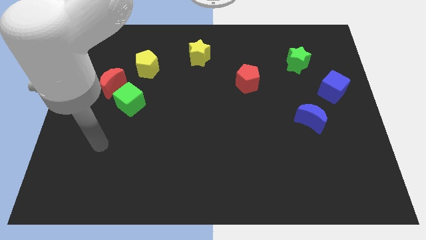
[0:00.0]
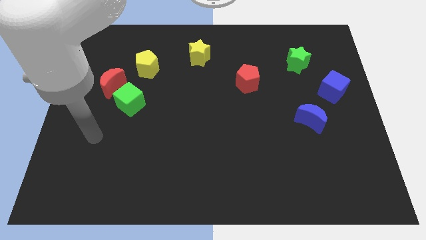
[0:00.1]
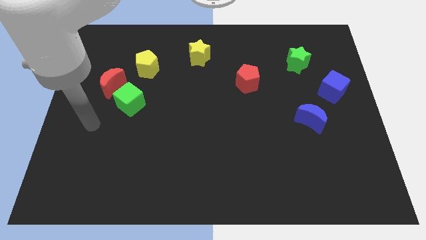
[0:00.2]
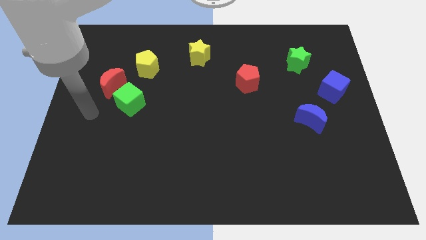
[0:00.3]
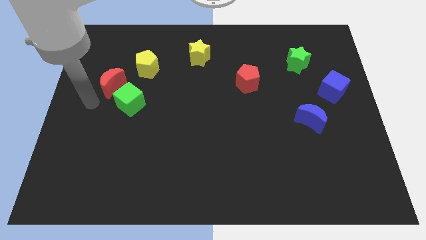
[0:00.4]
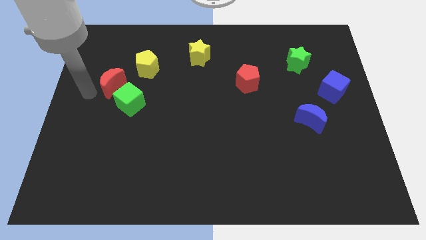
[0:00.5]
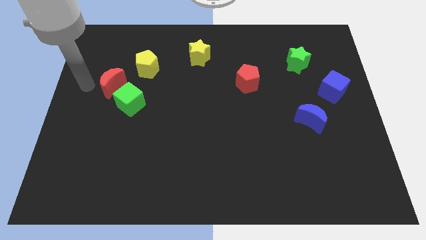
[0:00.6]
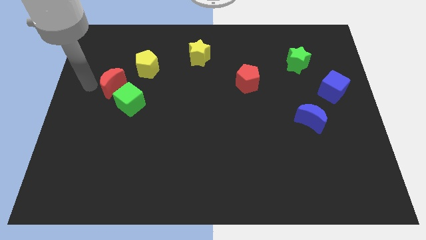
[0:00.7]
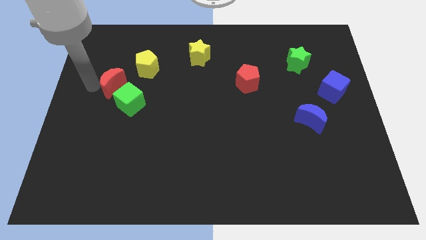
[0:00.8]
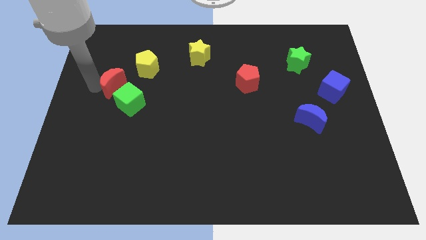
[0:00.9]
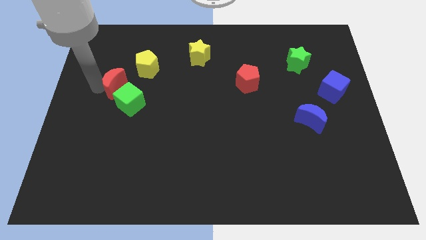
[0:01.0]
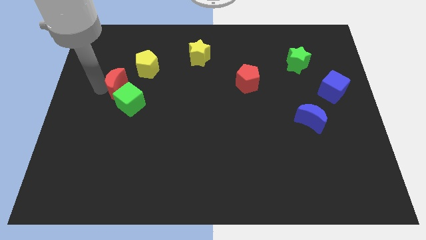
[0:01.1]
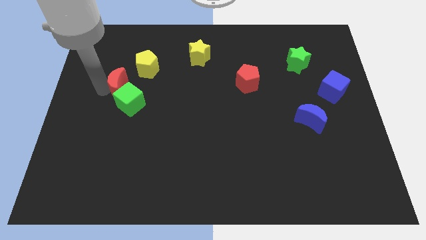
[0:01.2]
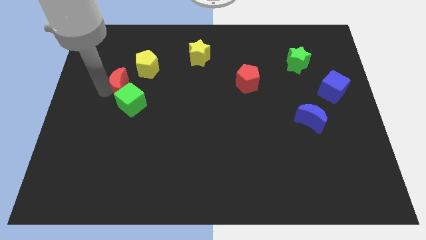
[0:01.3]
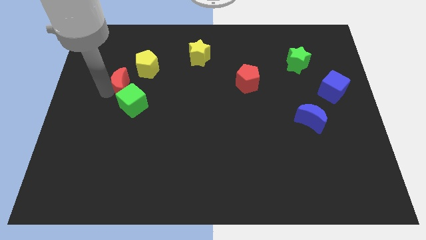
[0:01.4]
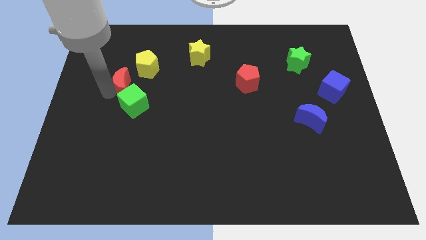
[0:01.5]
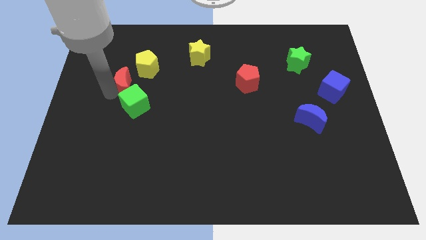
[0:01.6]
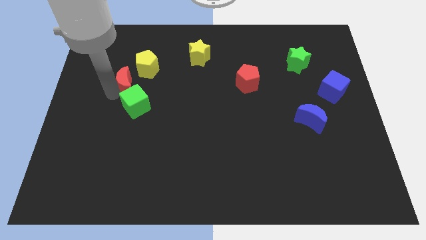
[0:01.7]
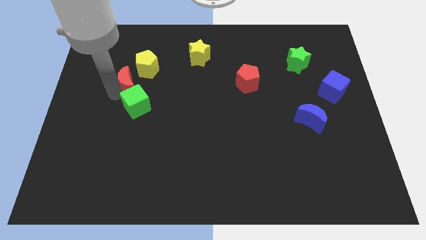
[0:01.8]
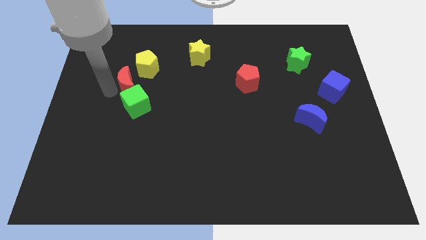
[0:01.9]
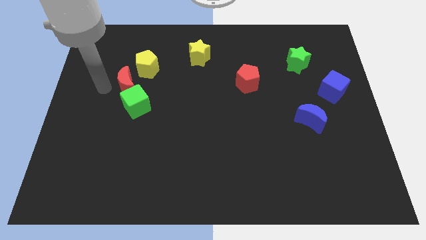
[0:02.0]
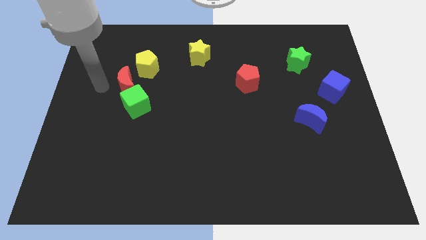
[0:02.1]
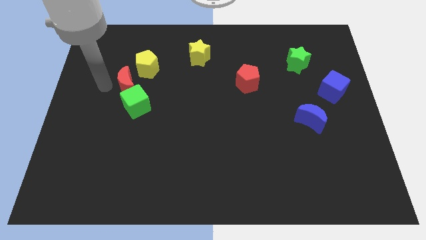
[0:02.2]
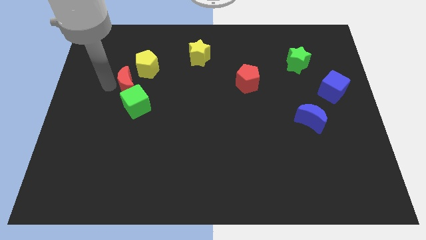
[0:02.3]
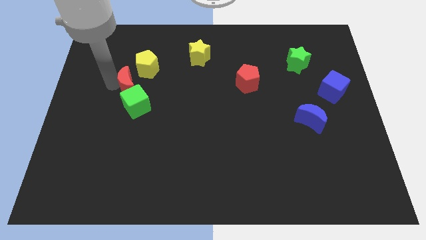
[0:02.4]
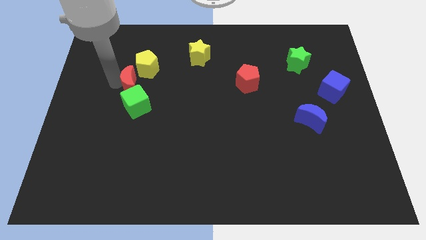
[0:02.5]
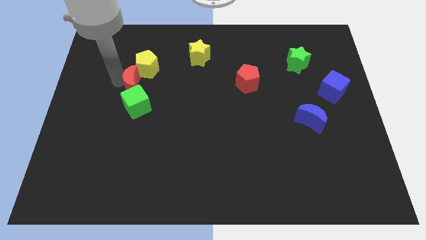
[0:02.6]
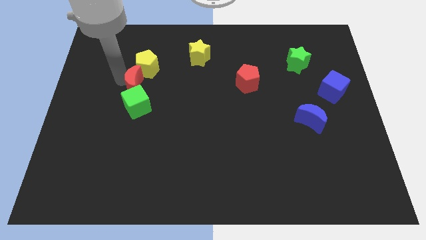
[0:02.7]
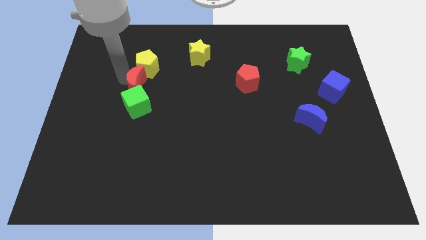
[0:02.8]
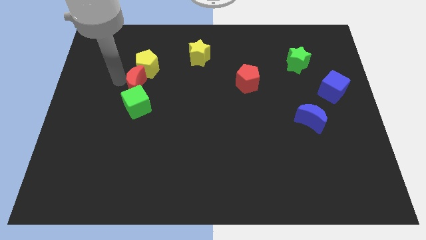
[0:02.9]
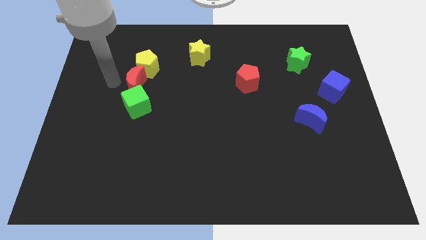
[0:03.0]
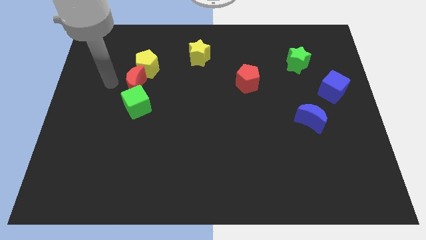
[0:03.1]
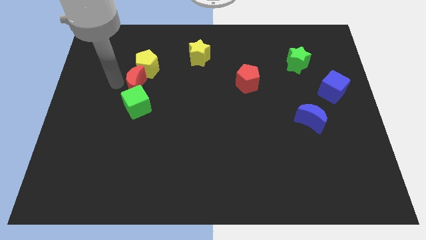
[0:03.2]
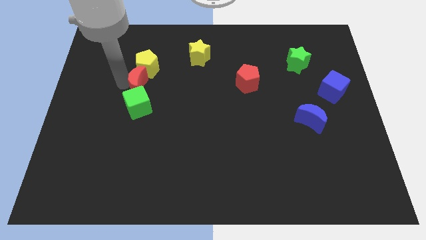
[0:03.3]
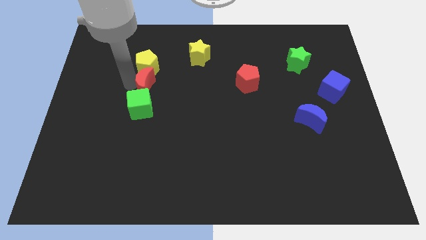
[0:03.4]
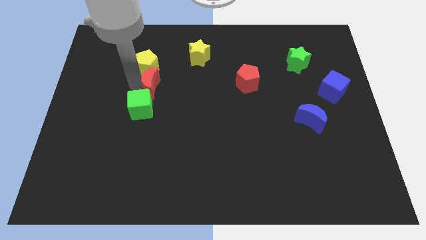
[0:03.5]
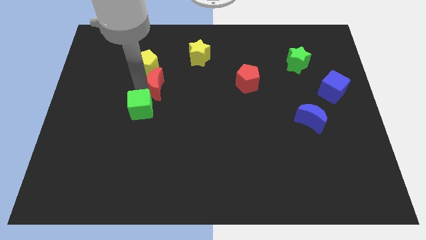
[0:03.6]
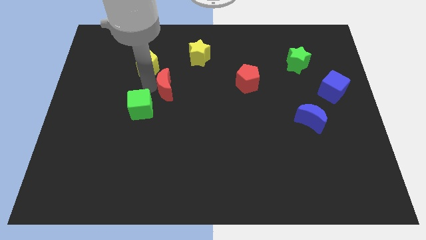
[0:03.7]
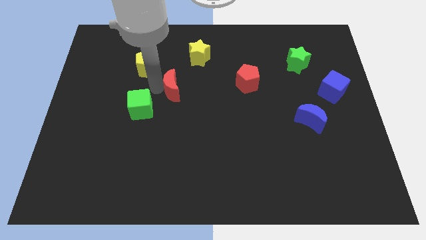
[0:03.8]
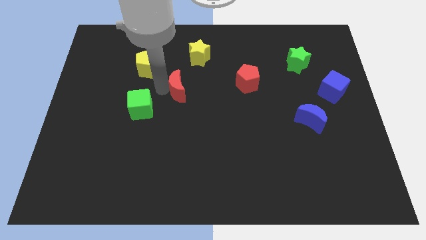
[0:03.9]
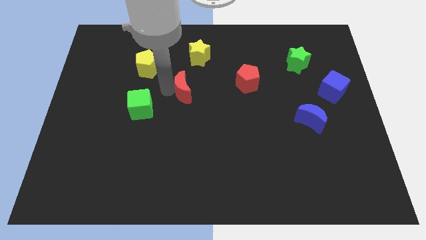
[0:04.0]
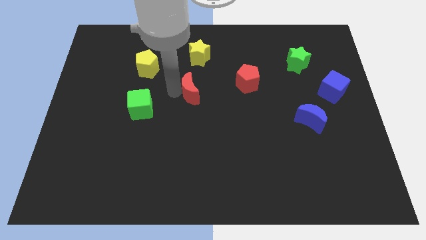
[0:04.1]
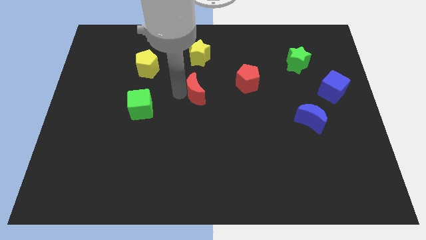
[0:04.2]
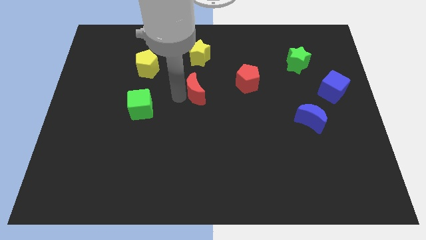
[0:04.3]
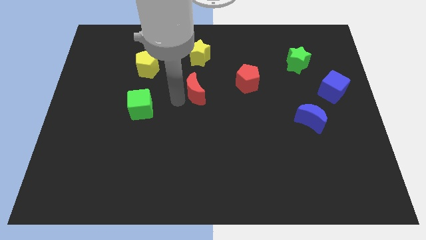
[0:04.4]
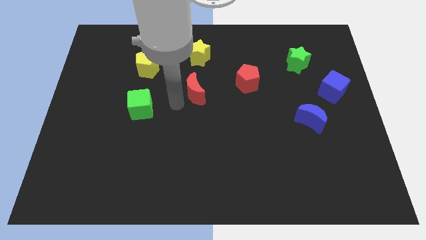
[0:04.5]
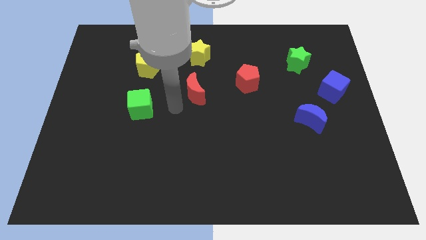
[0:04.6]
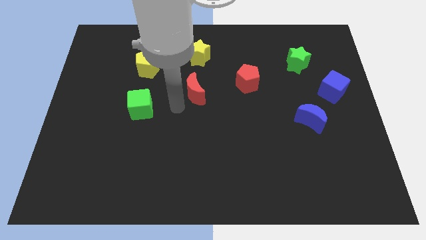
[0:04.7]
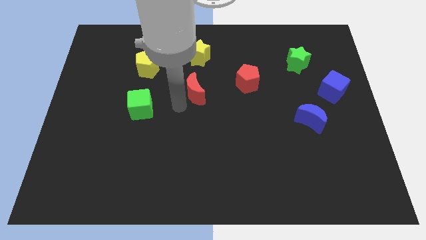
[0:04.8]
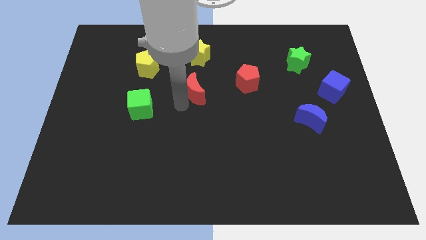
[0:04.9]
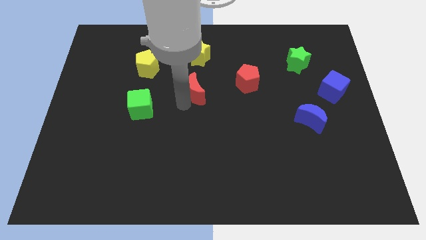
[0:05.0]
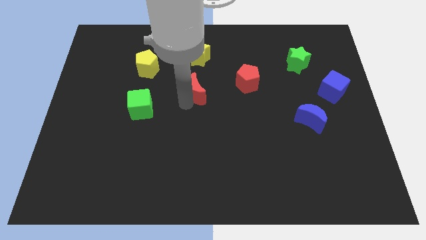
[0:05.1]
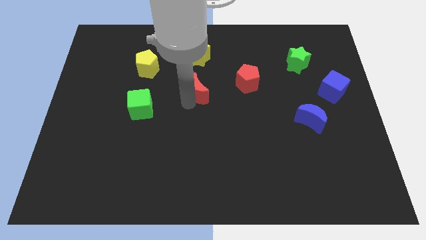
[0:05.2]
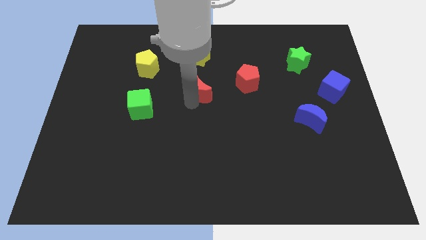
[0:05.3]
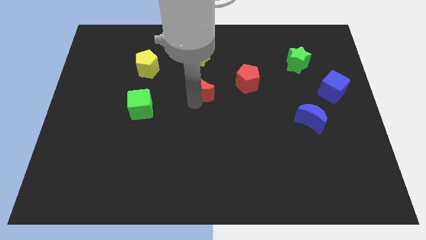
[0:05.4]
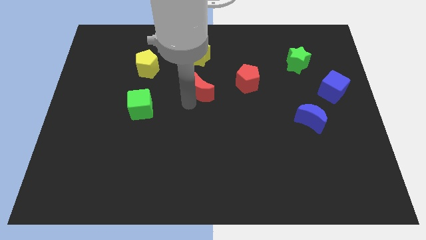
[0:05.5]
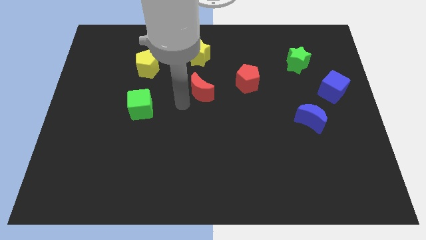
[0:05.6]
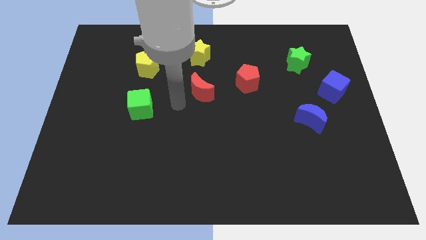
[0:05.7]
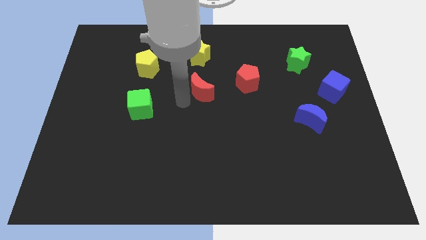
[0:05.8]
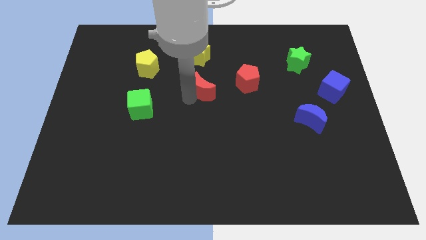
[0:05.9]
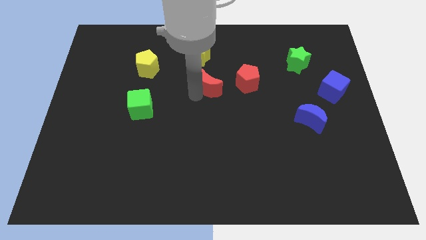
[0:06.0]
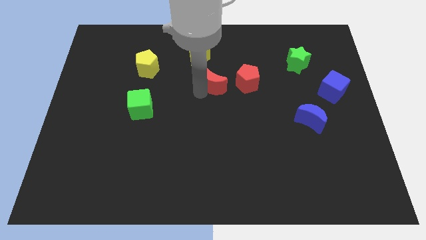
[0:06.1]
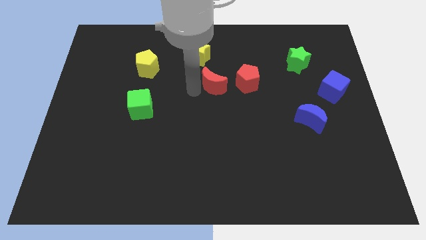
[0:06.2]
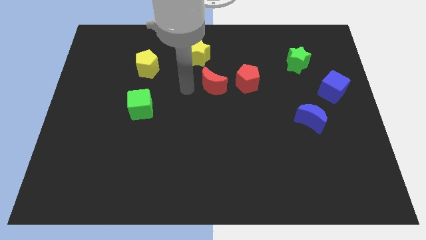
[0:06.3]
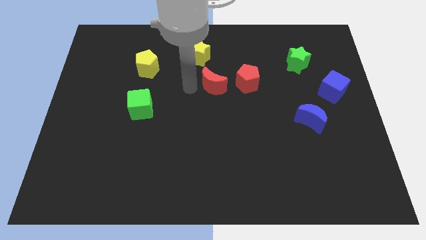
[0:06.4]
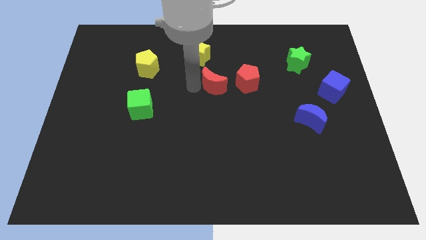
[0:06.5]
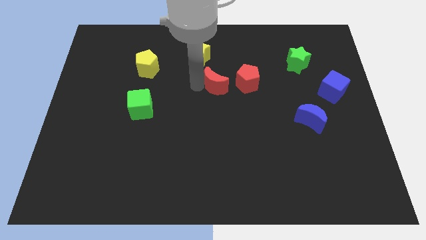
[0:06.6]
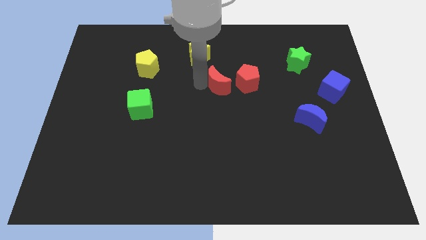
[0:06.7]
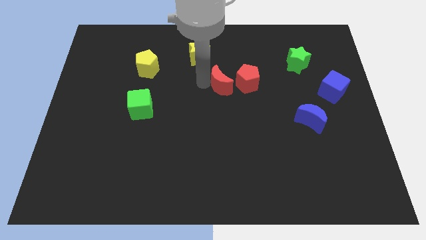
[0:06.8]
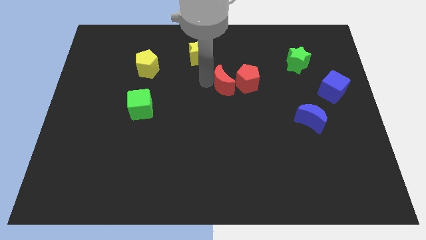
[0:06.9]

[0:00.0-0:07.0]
put the red moon next to the red pentagon
